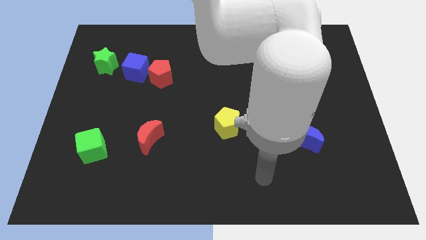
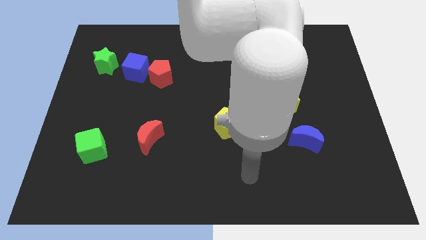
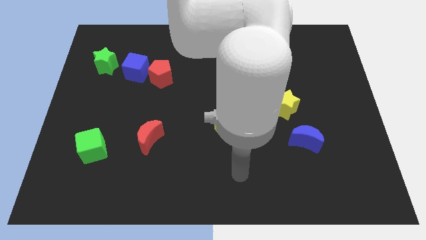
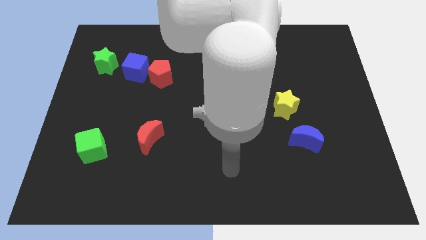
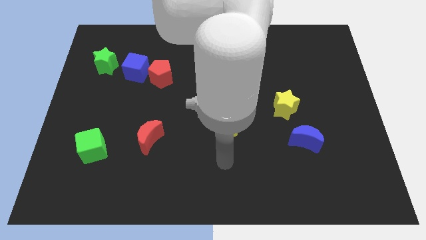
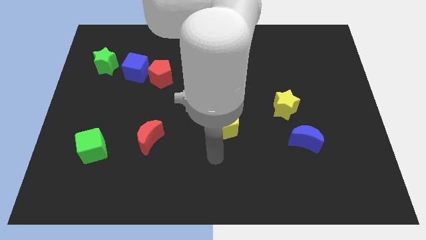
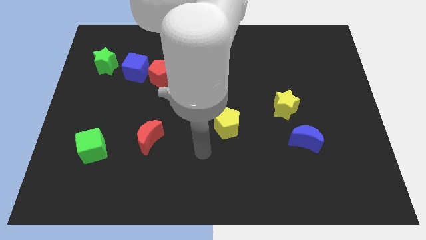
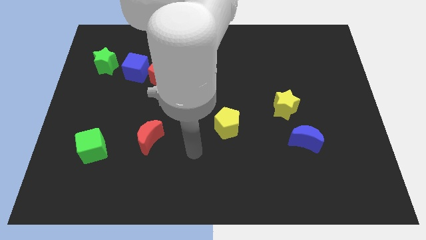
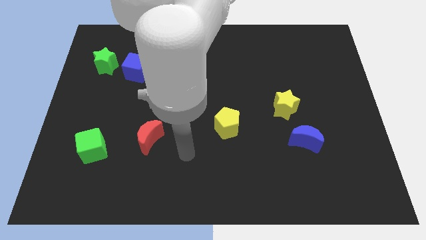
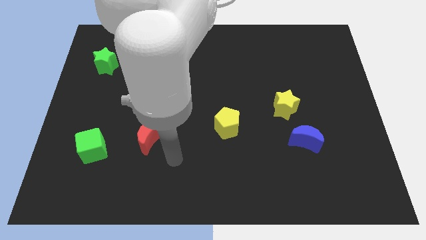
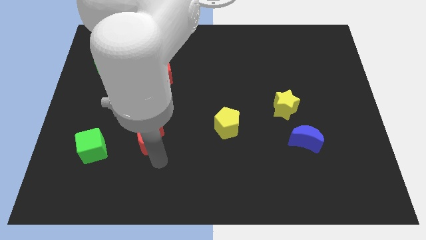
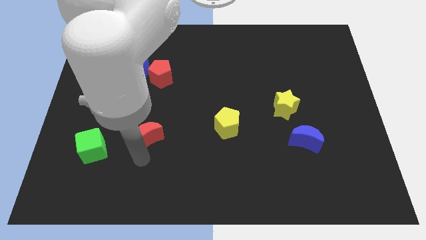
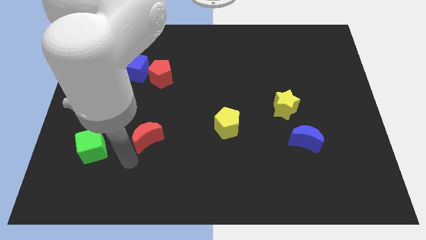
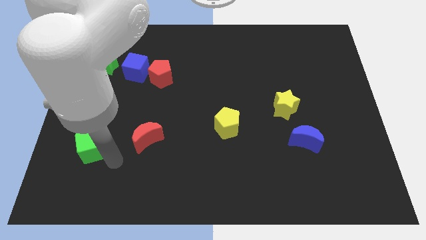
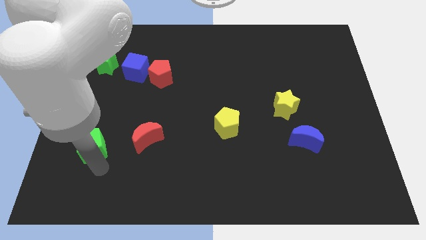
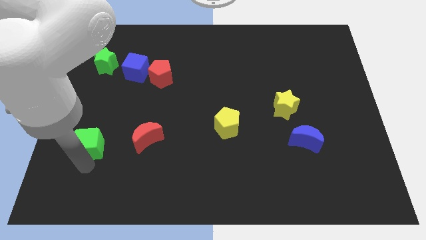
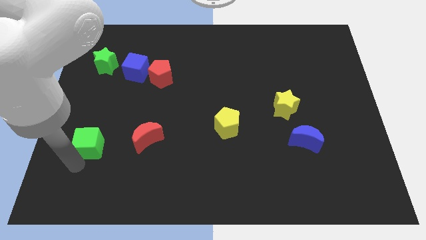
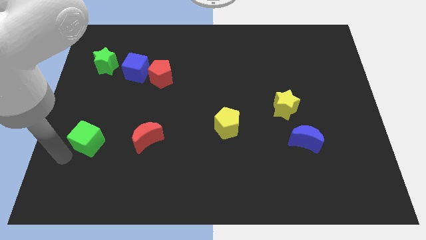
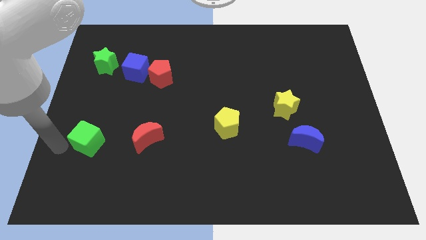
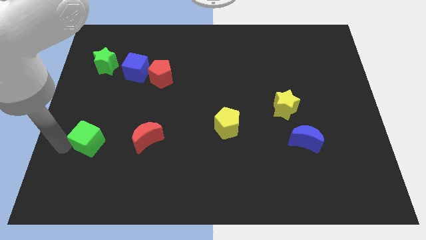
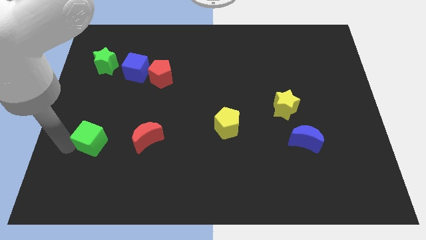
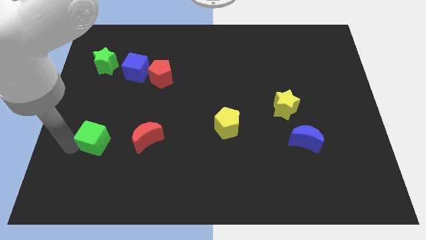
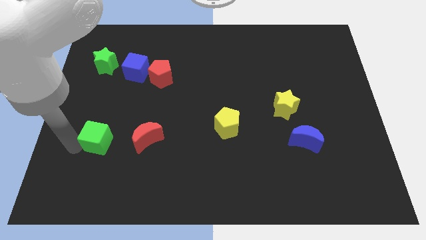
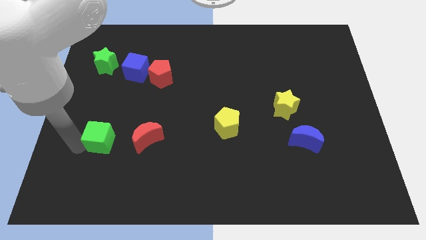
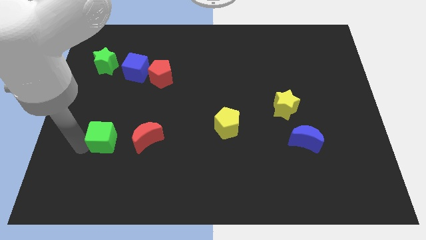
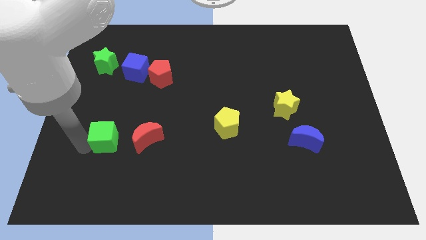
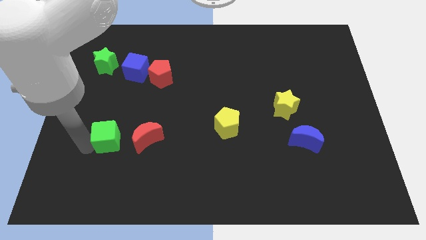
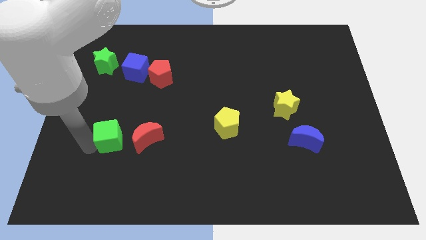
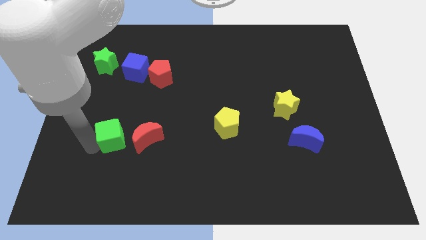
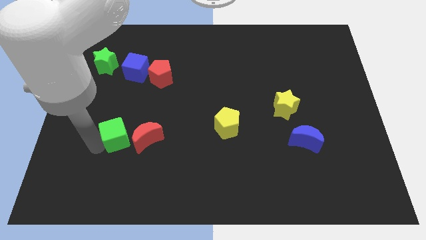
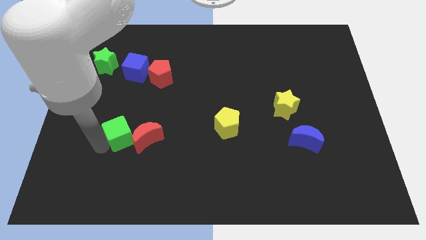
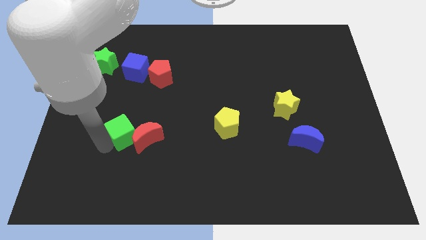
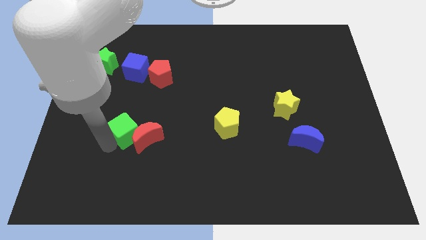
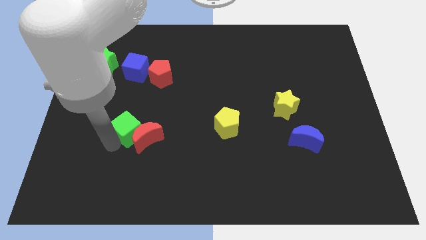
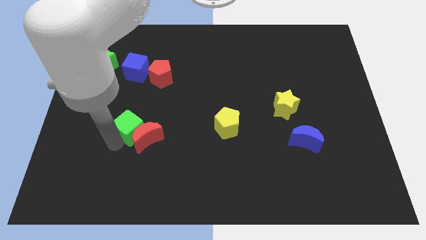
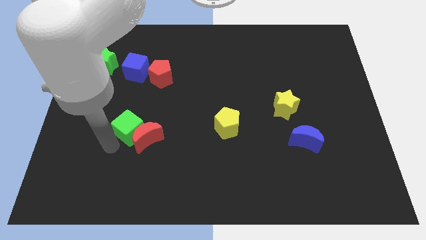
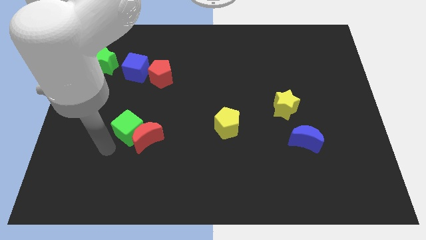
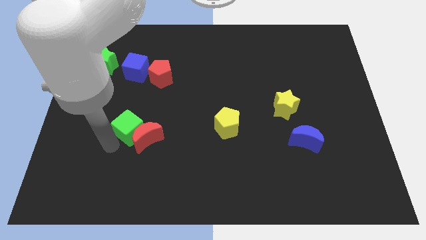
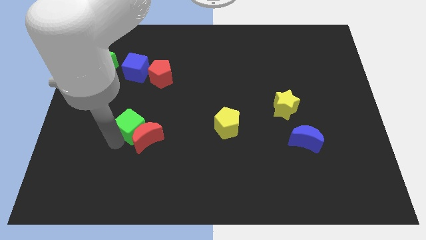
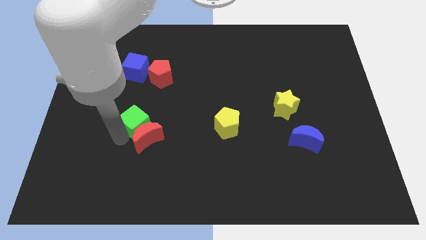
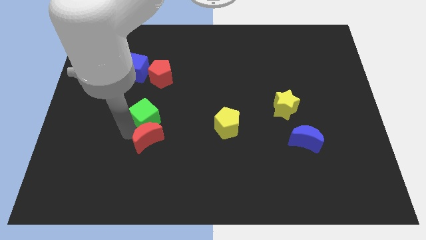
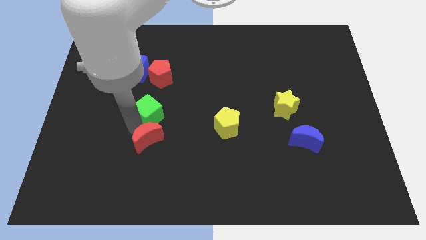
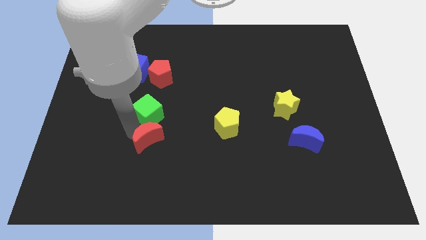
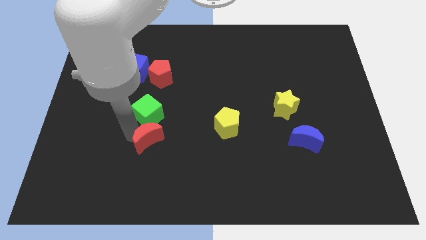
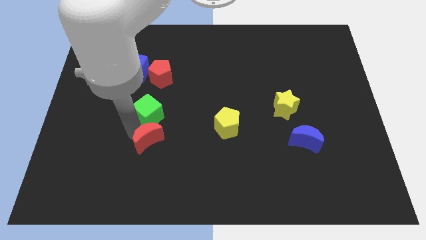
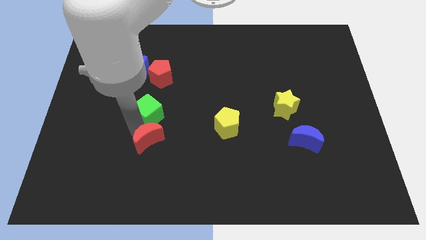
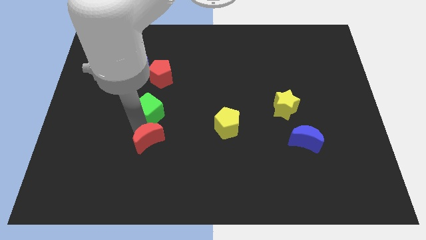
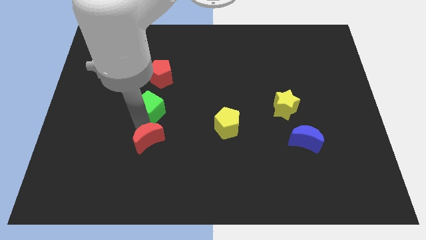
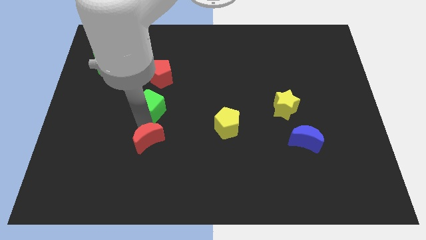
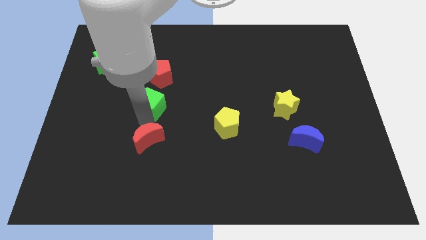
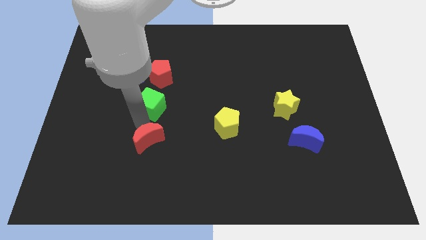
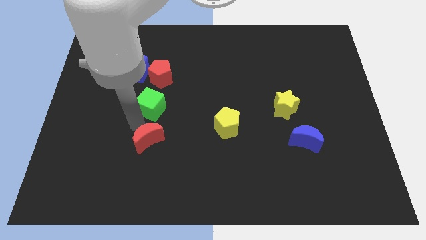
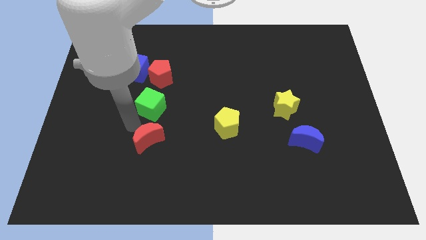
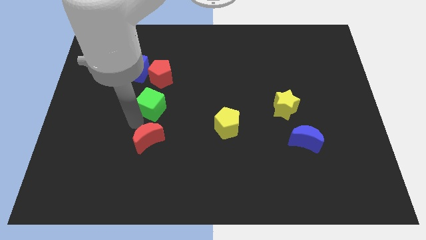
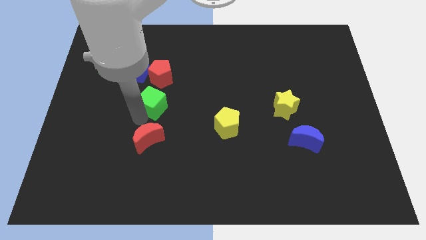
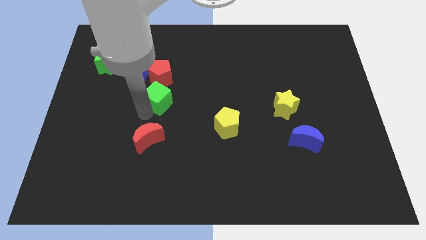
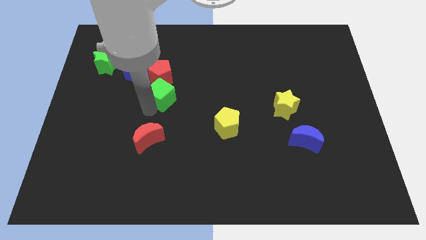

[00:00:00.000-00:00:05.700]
move the green cube upwards and right

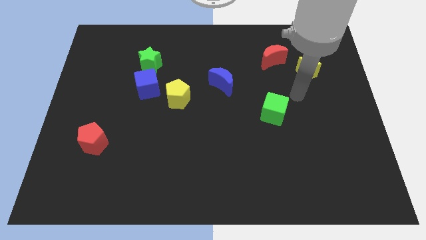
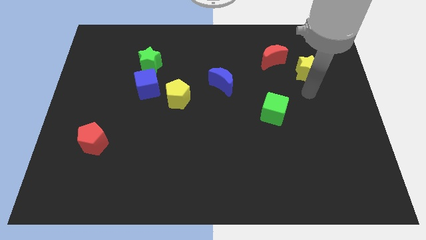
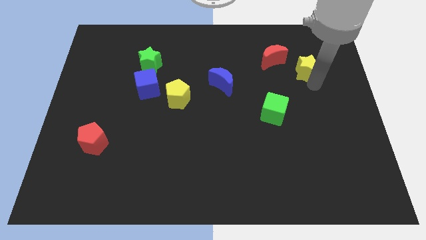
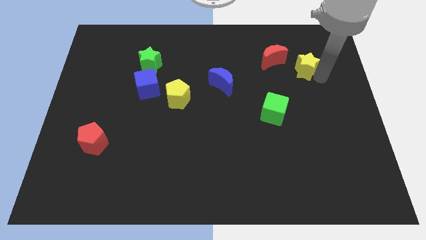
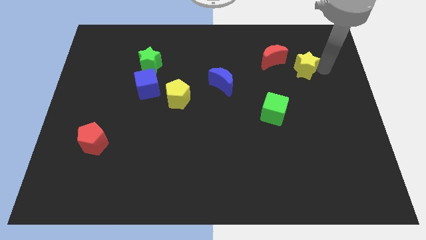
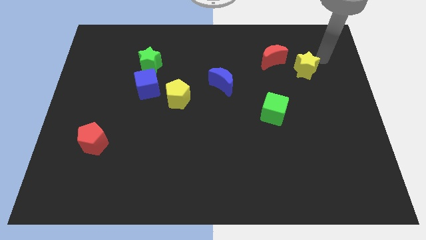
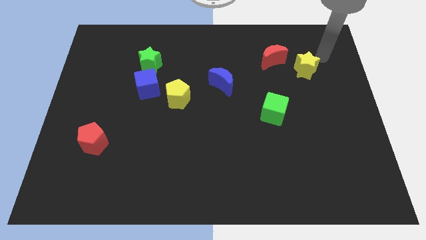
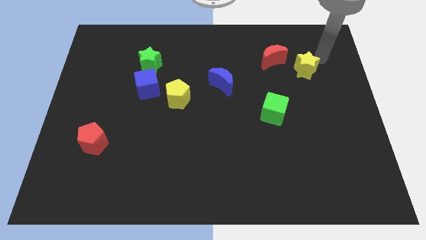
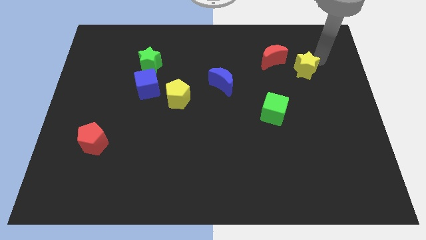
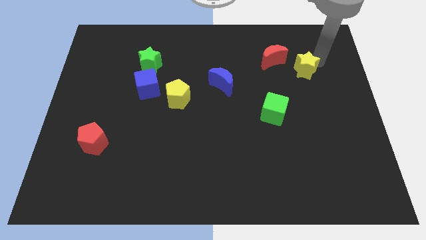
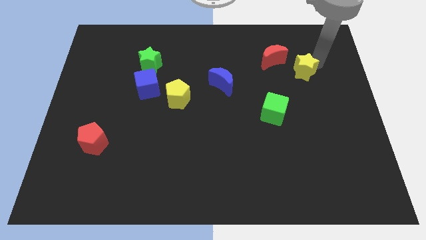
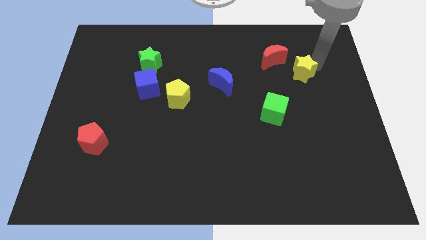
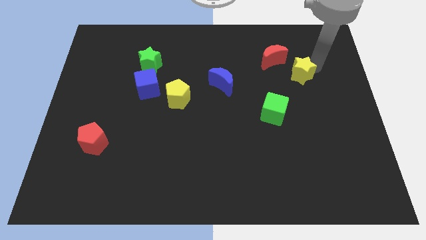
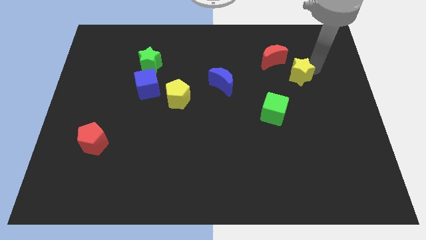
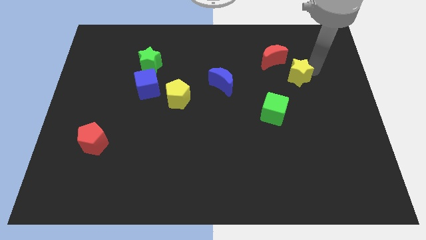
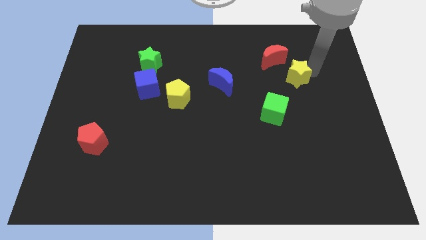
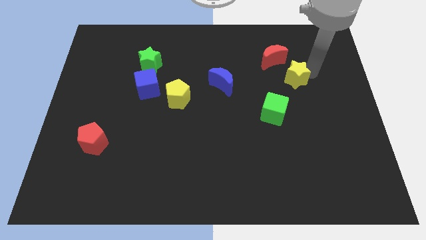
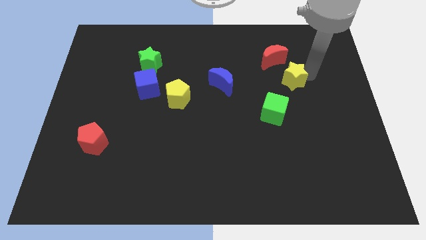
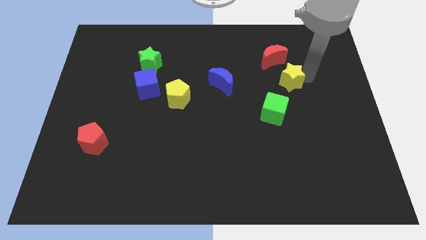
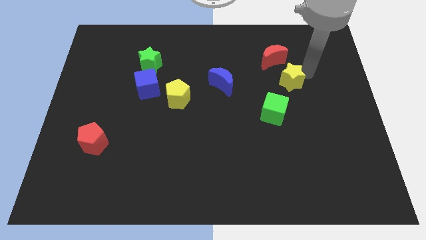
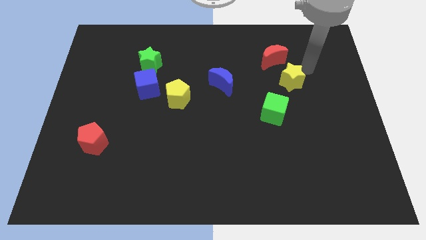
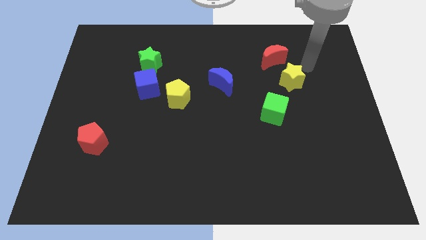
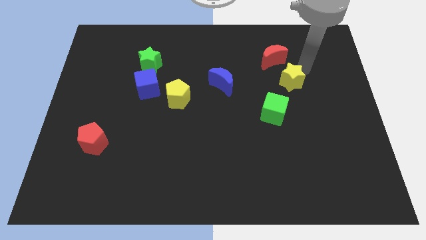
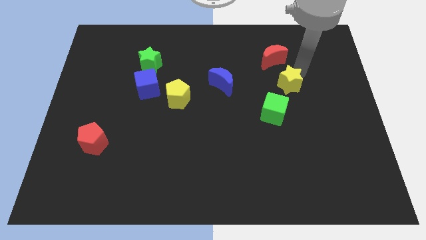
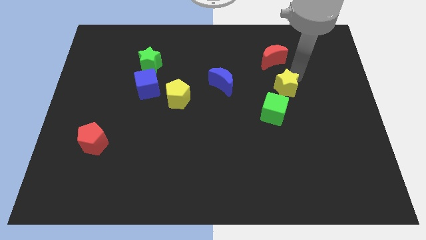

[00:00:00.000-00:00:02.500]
slightly push the yellow star downwards and to the left diagonally
